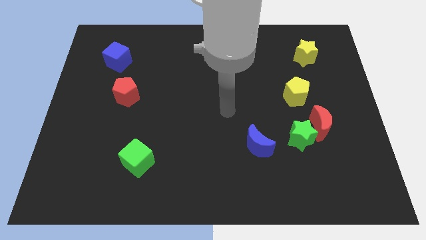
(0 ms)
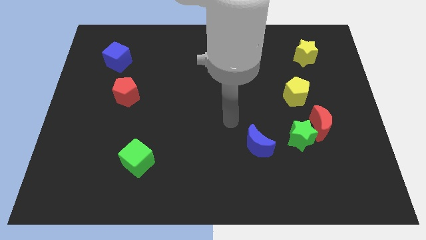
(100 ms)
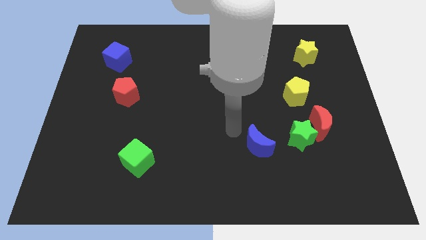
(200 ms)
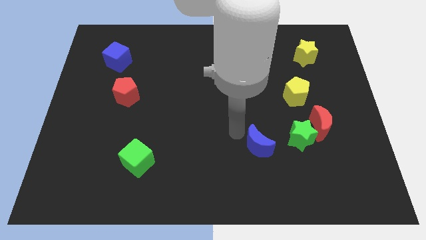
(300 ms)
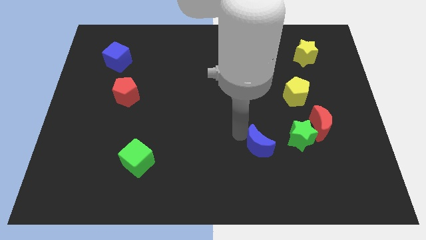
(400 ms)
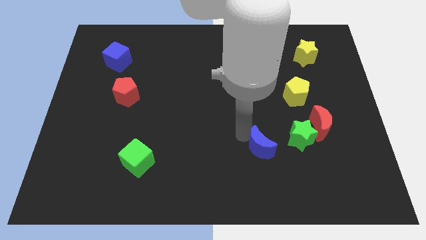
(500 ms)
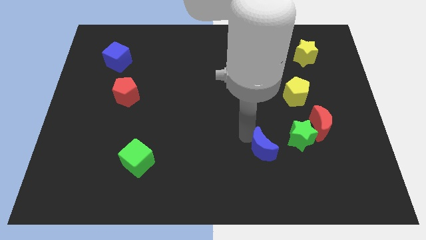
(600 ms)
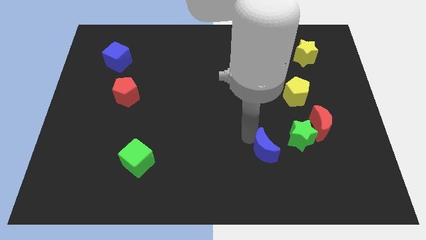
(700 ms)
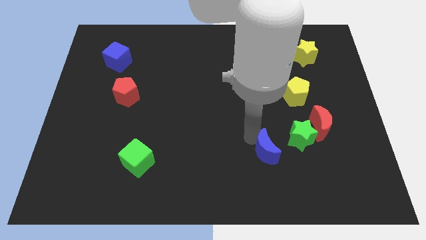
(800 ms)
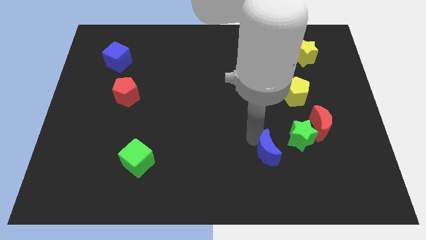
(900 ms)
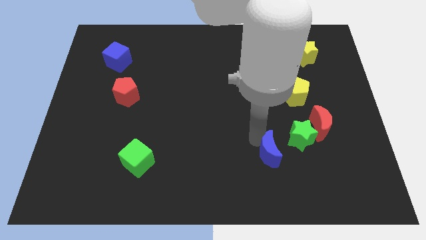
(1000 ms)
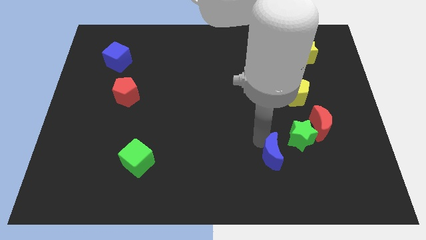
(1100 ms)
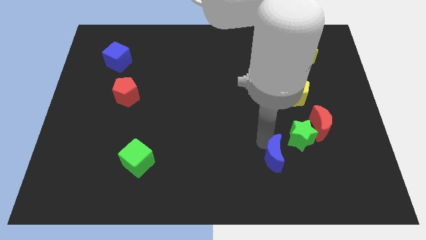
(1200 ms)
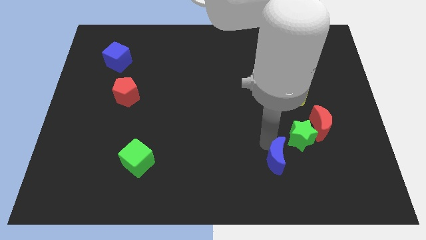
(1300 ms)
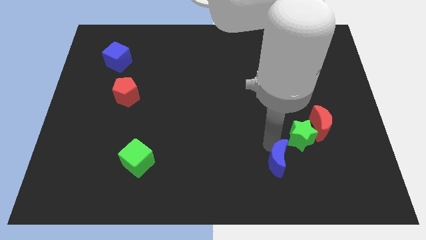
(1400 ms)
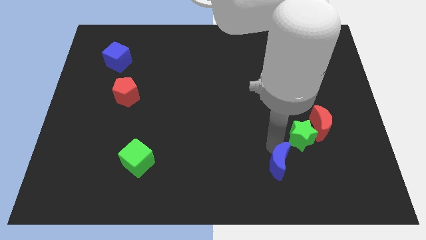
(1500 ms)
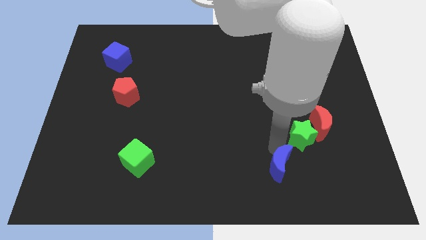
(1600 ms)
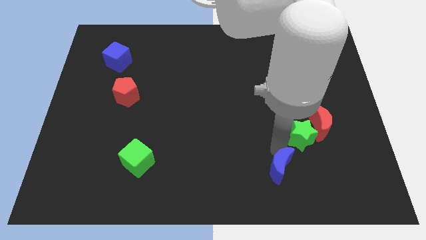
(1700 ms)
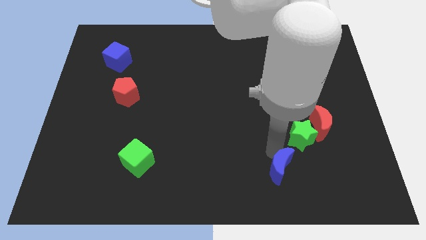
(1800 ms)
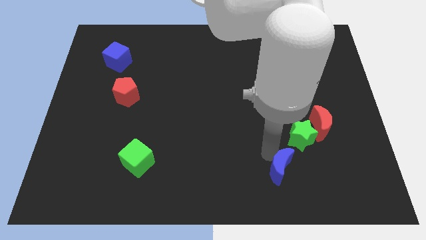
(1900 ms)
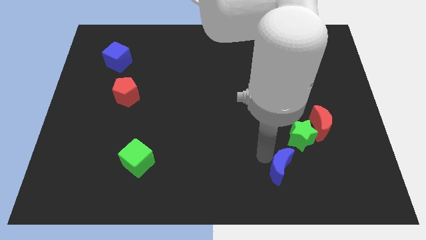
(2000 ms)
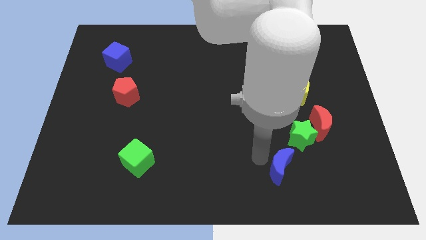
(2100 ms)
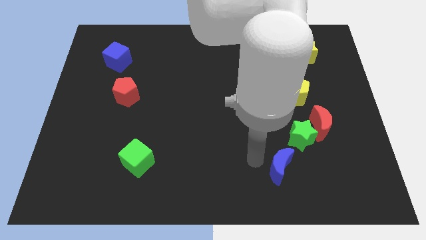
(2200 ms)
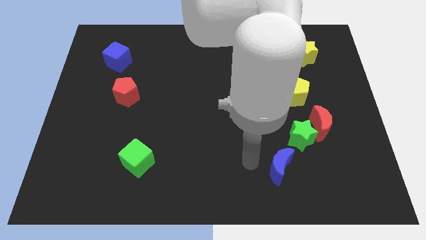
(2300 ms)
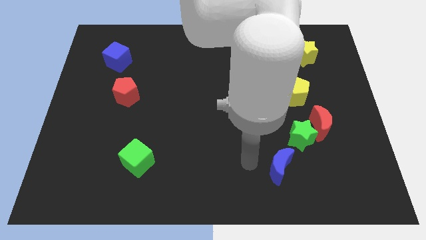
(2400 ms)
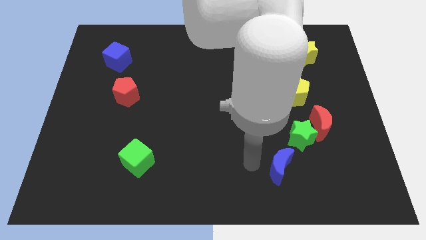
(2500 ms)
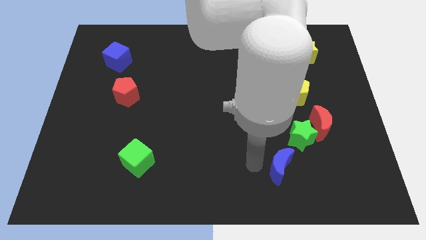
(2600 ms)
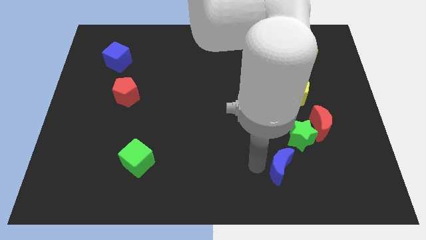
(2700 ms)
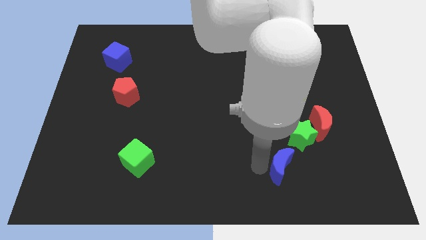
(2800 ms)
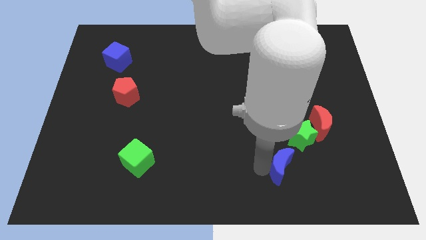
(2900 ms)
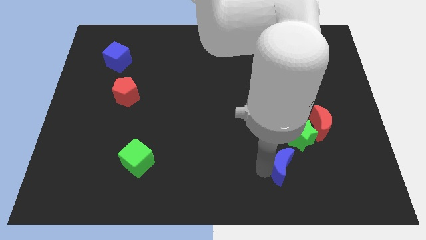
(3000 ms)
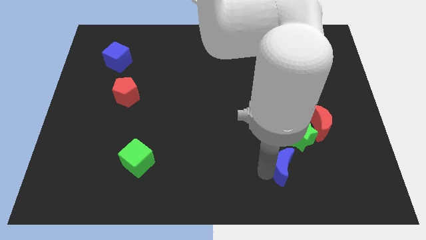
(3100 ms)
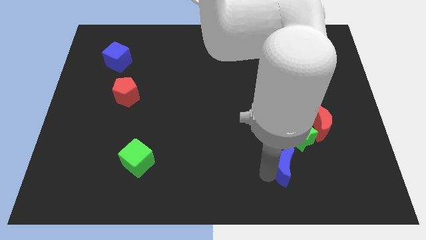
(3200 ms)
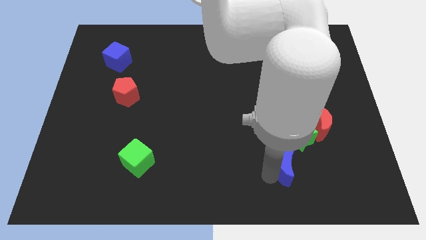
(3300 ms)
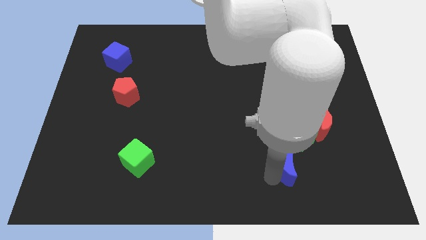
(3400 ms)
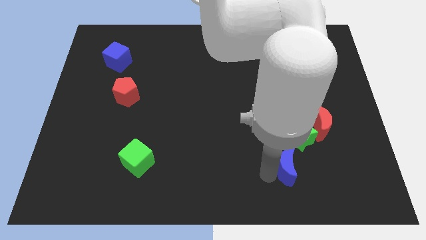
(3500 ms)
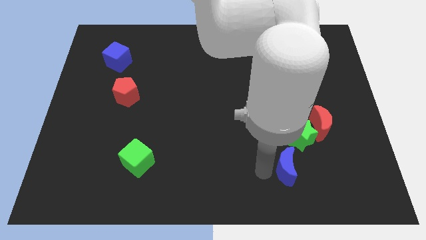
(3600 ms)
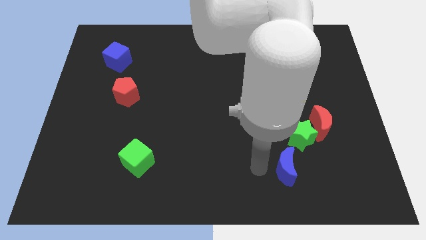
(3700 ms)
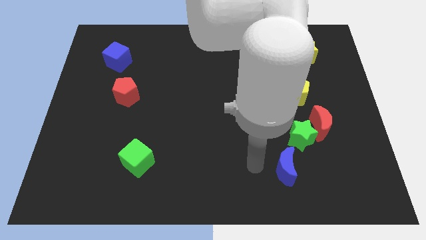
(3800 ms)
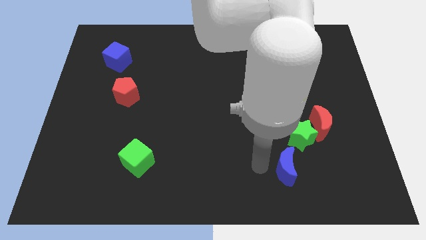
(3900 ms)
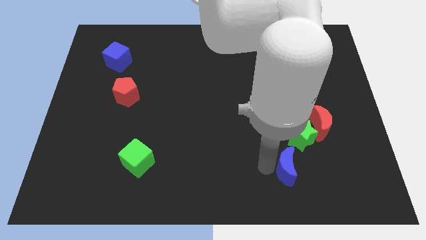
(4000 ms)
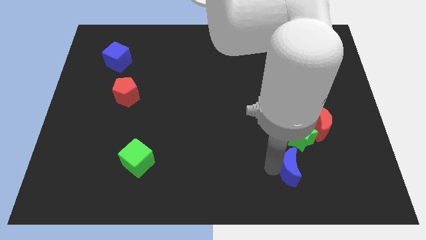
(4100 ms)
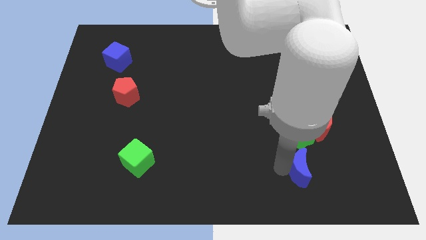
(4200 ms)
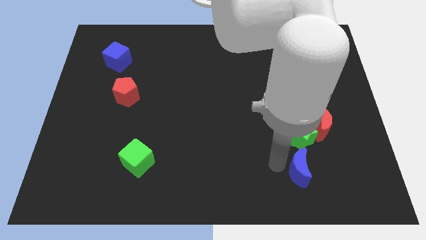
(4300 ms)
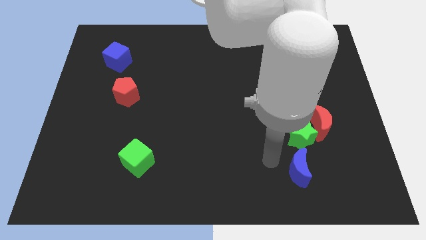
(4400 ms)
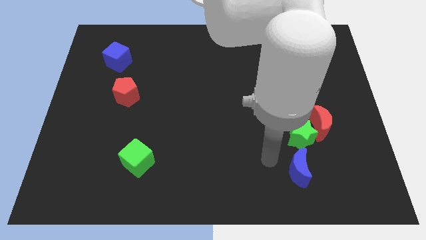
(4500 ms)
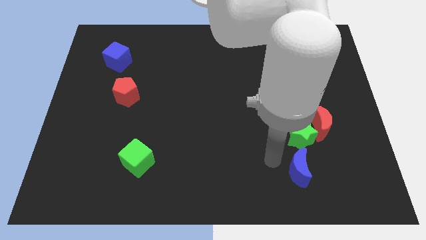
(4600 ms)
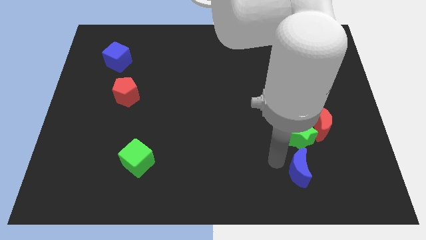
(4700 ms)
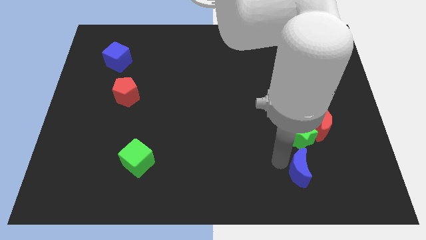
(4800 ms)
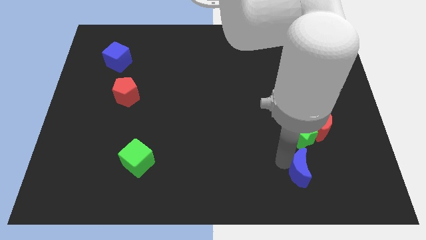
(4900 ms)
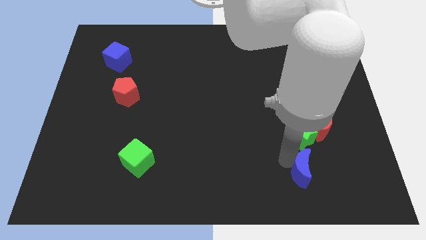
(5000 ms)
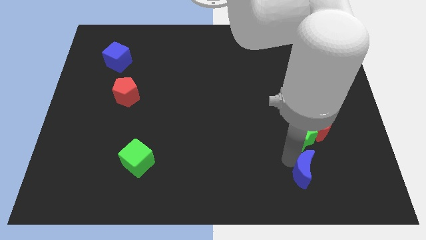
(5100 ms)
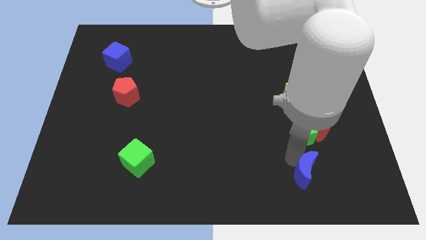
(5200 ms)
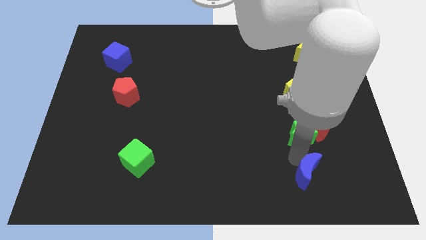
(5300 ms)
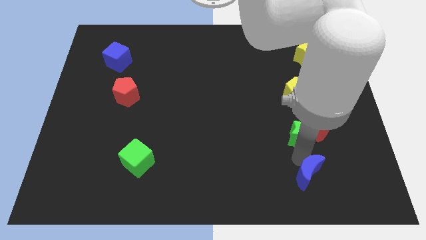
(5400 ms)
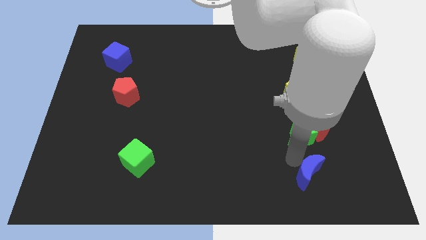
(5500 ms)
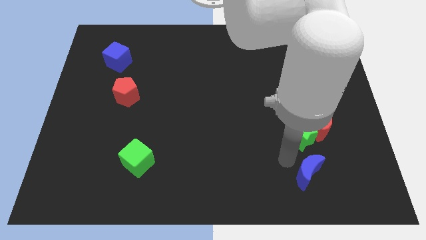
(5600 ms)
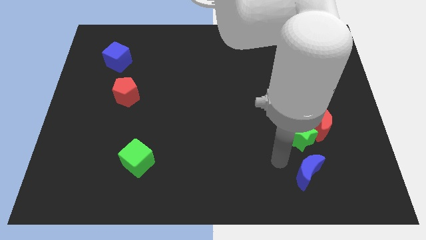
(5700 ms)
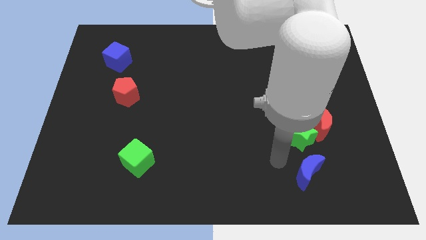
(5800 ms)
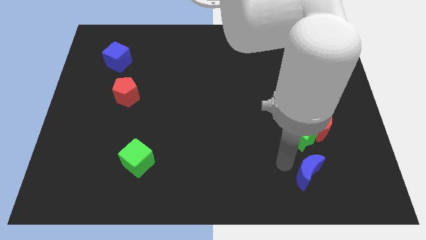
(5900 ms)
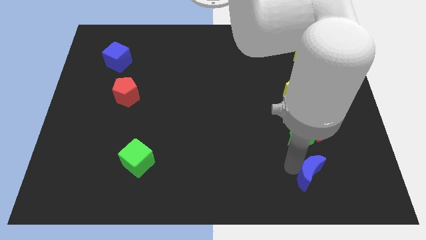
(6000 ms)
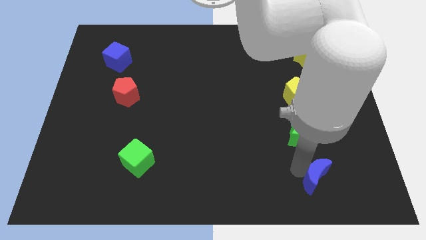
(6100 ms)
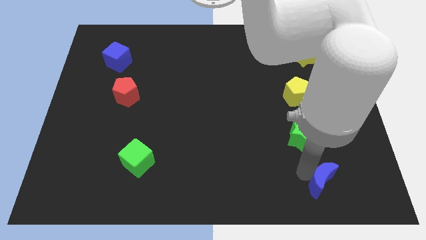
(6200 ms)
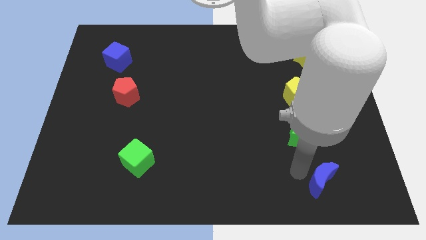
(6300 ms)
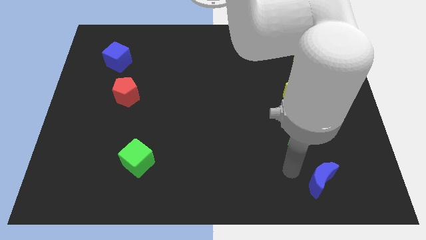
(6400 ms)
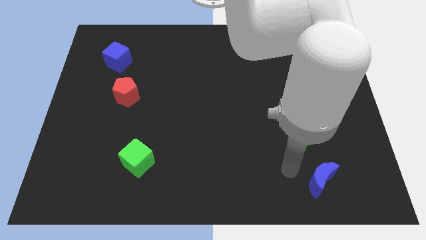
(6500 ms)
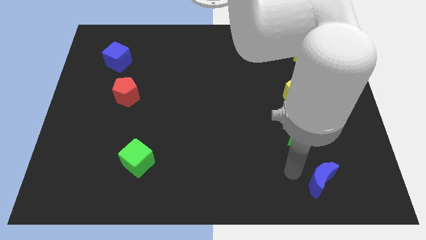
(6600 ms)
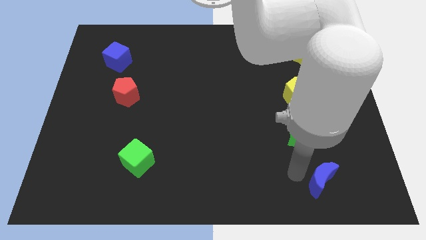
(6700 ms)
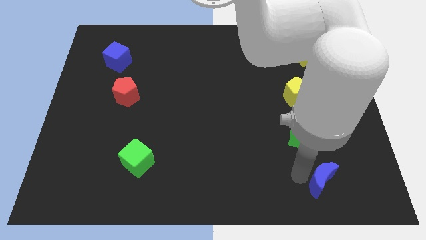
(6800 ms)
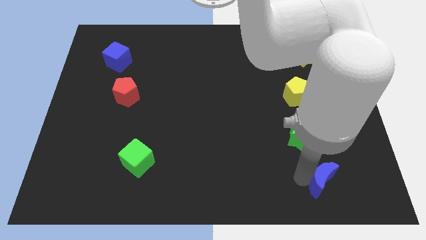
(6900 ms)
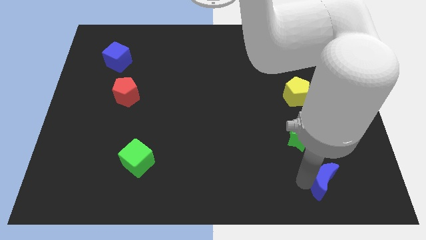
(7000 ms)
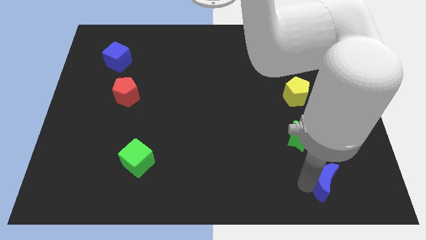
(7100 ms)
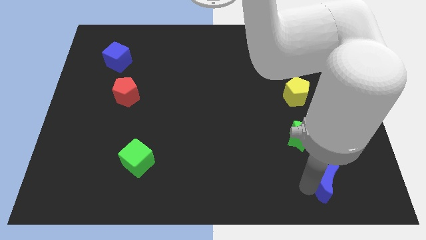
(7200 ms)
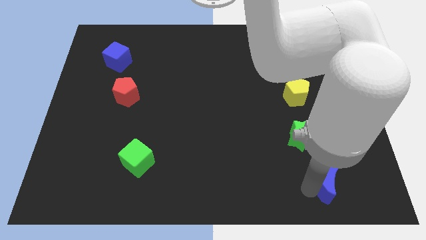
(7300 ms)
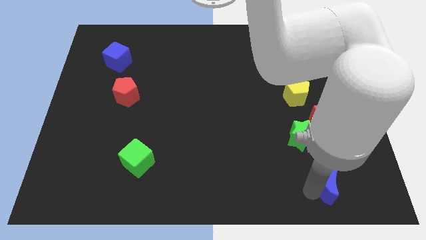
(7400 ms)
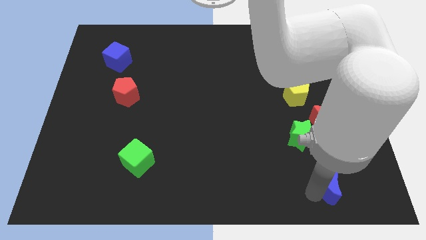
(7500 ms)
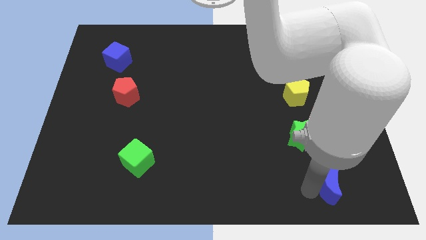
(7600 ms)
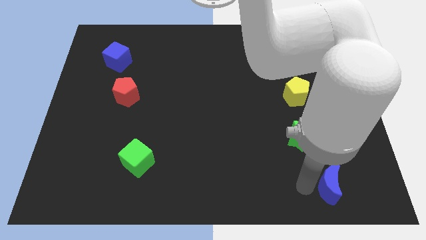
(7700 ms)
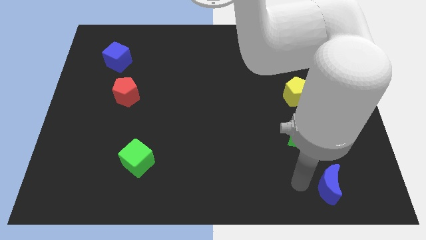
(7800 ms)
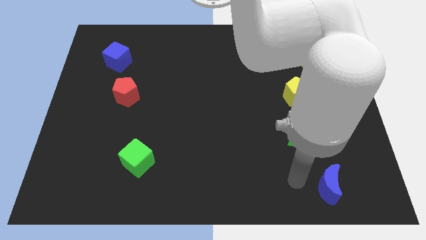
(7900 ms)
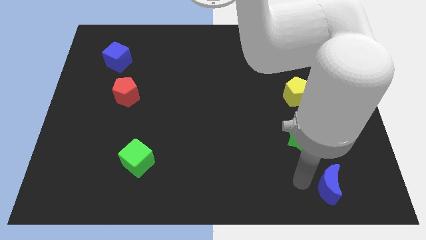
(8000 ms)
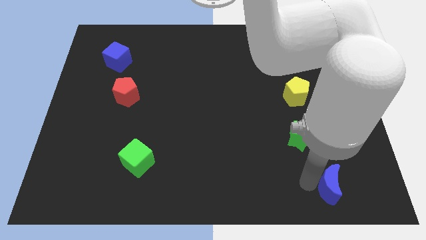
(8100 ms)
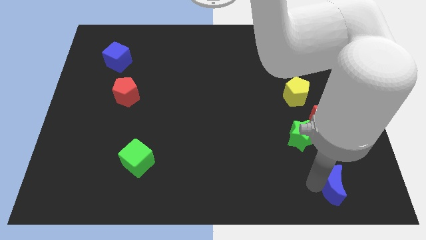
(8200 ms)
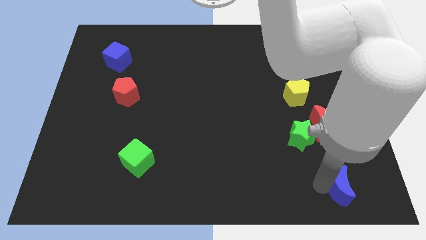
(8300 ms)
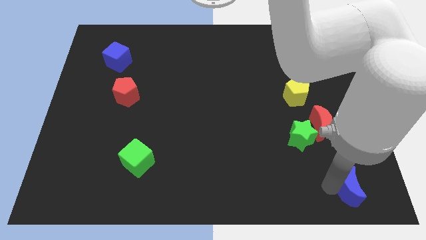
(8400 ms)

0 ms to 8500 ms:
slide the blue moon to the lower right corner
